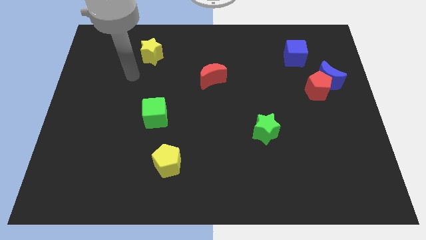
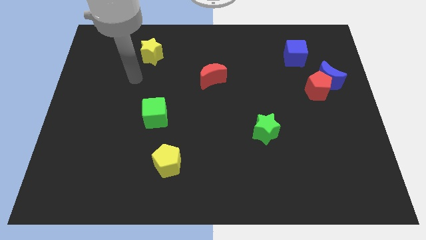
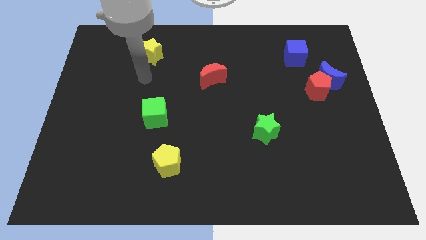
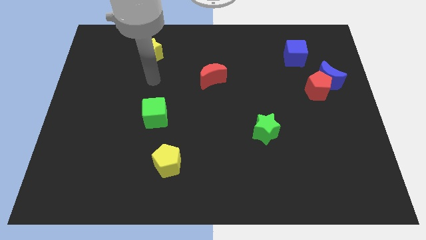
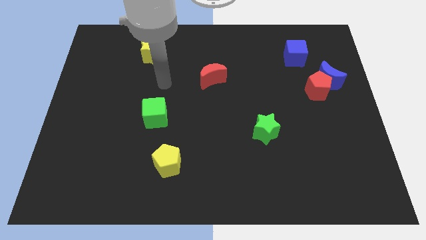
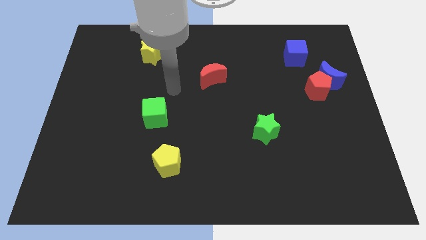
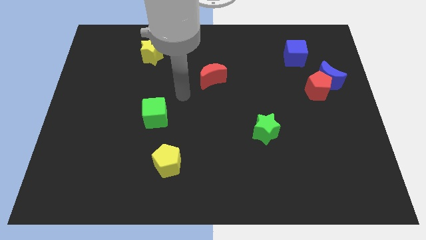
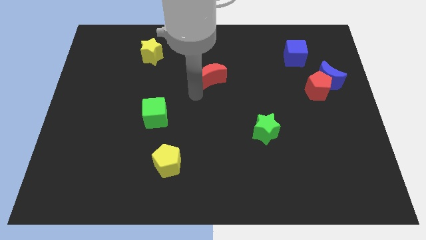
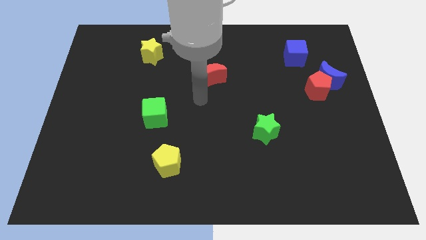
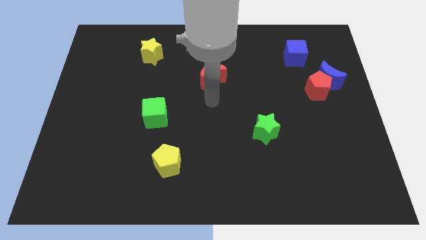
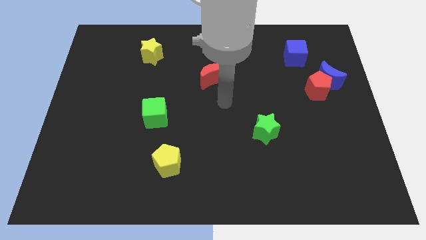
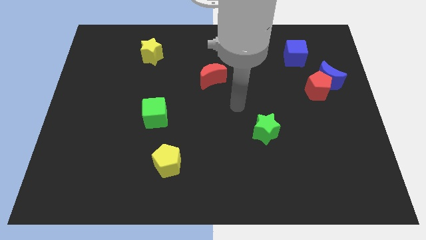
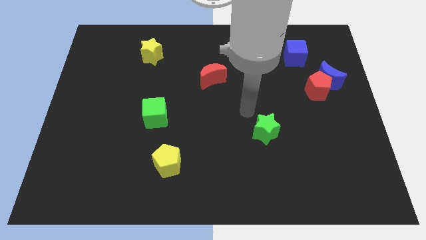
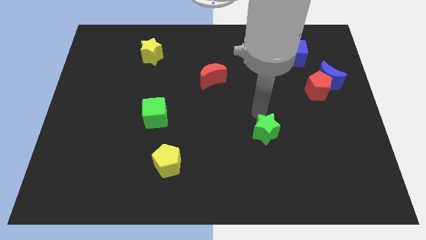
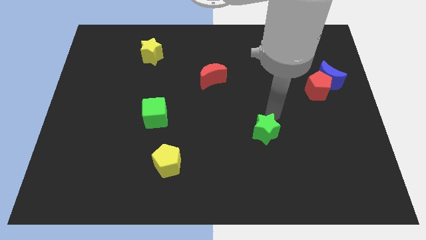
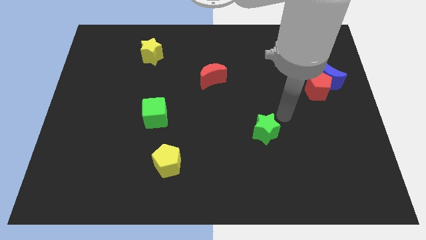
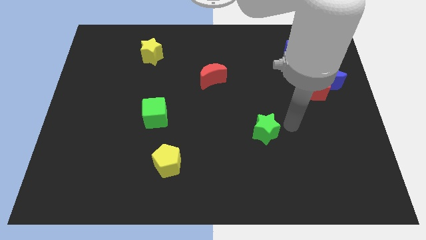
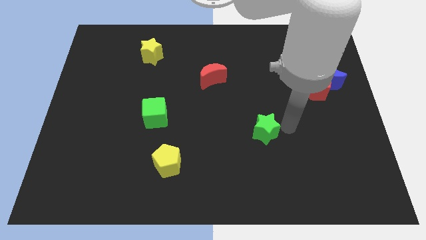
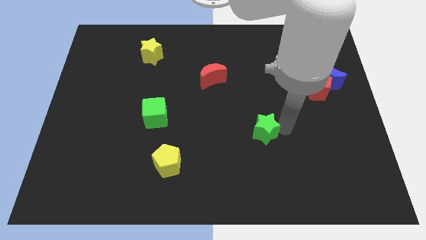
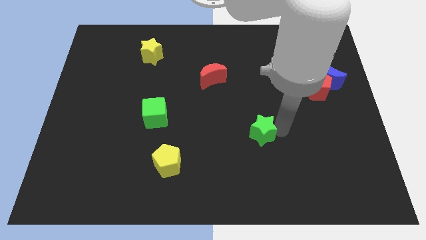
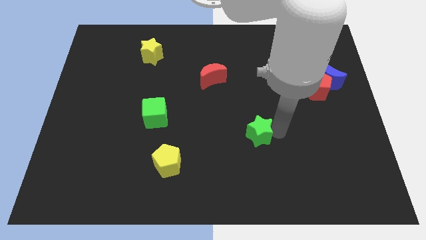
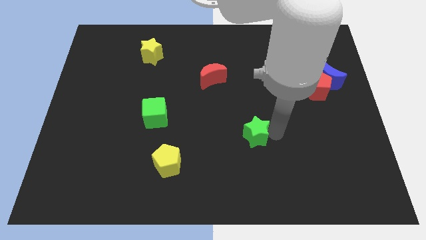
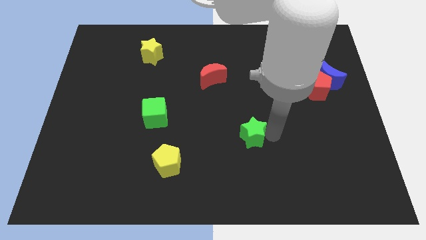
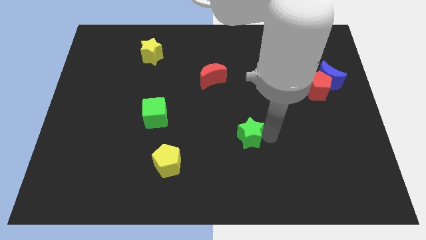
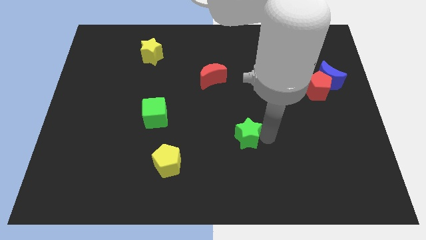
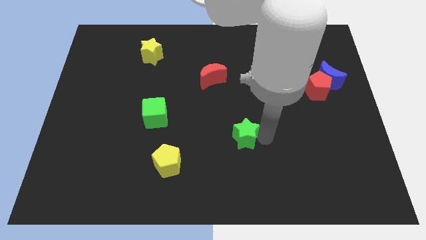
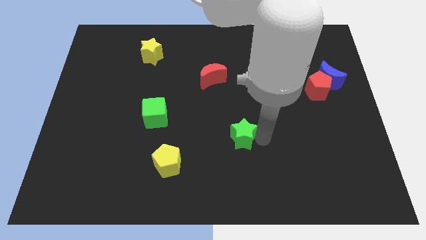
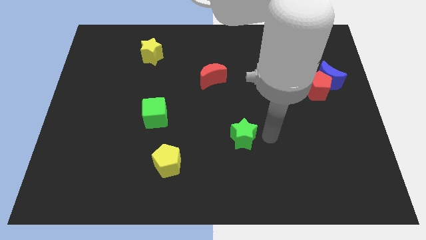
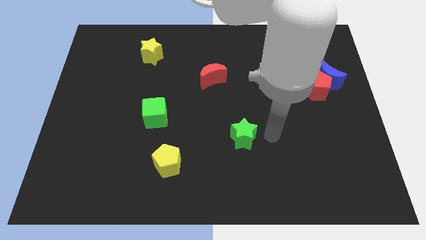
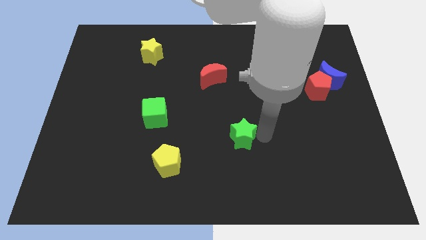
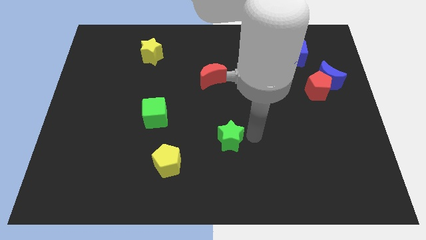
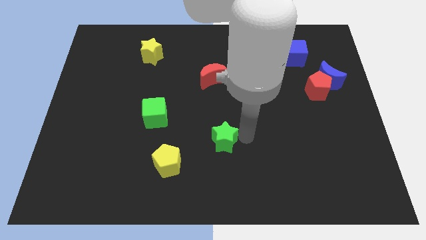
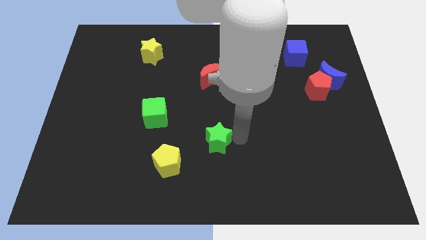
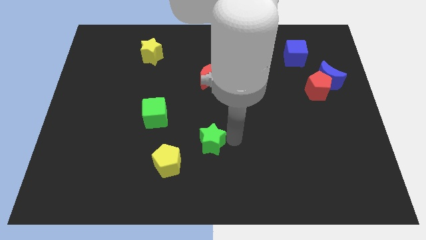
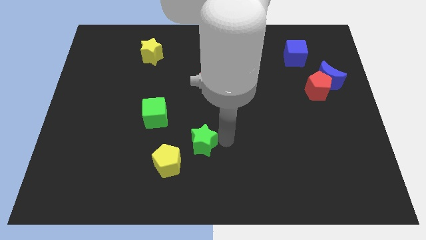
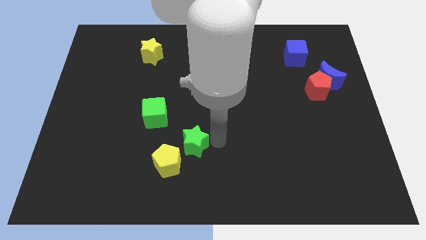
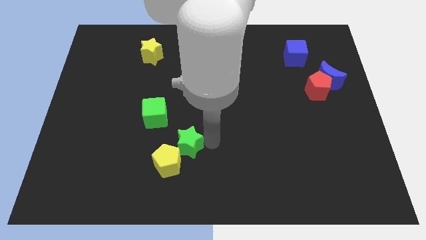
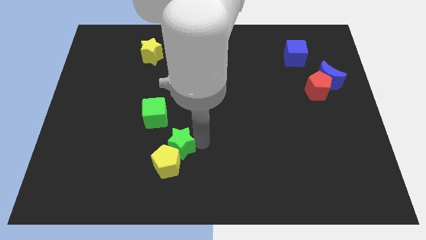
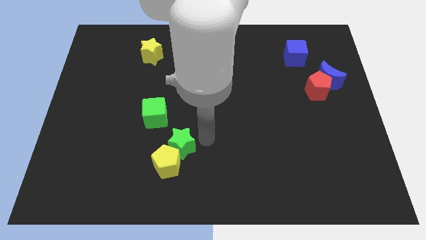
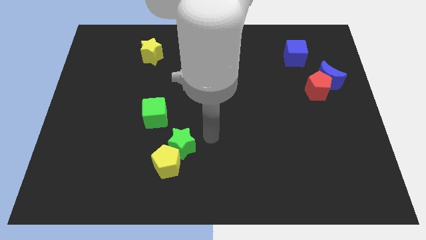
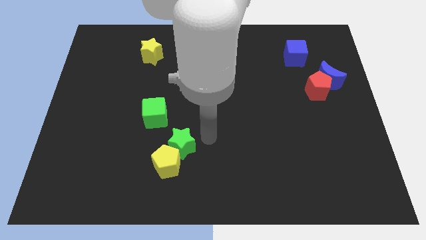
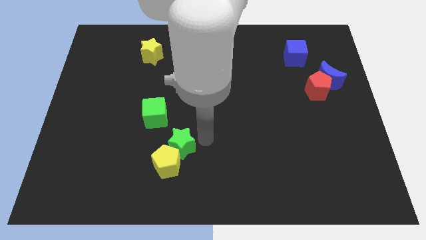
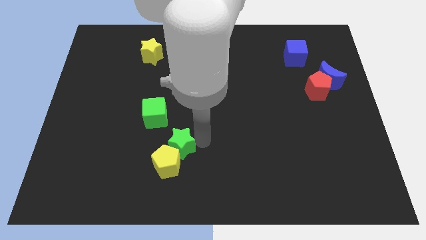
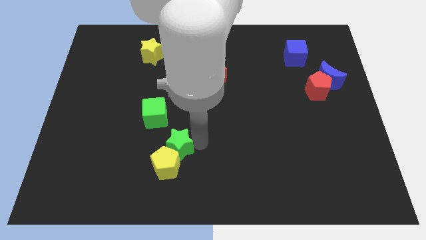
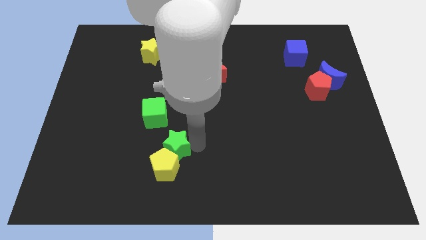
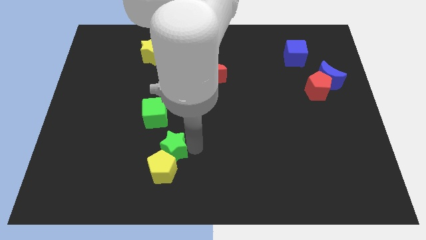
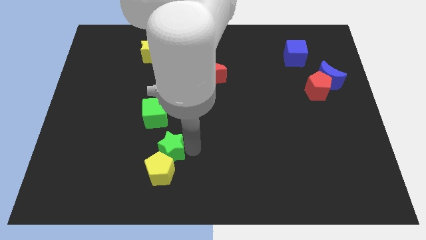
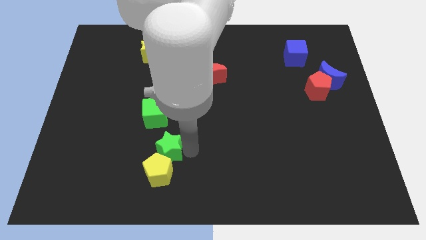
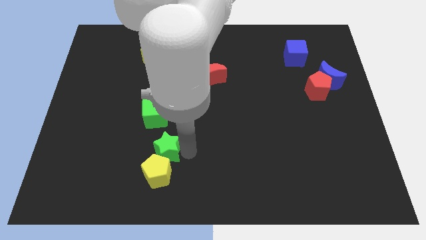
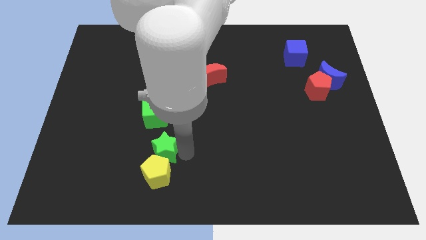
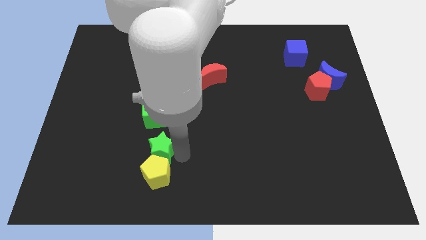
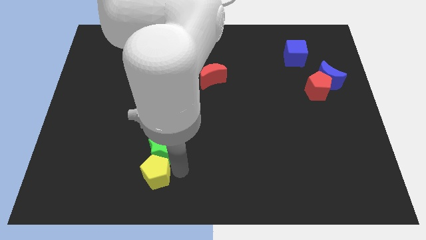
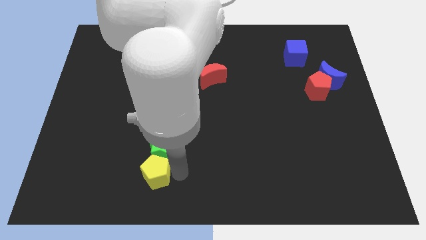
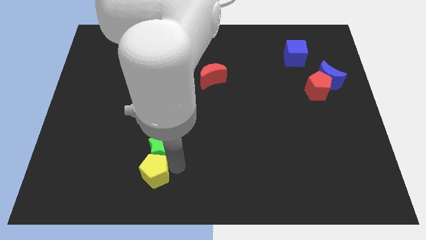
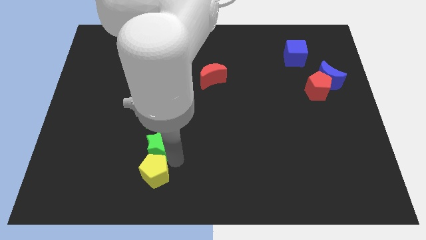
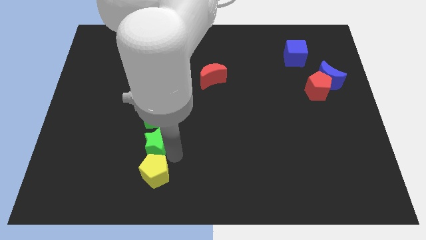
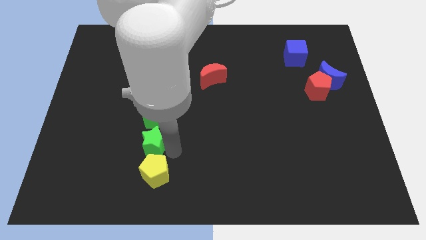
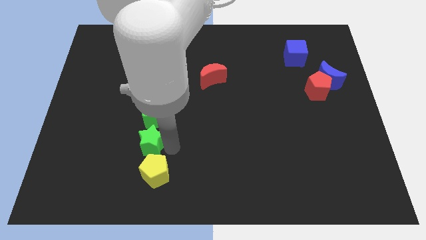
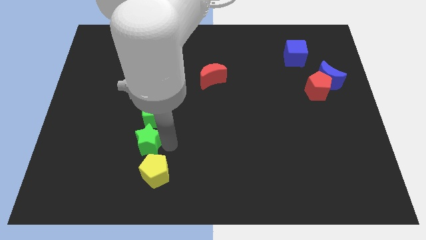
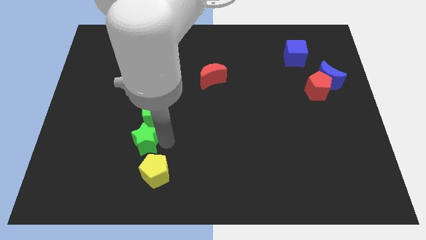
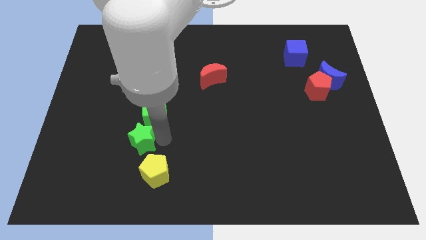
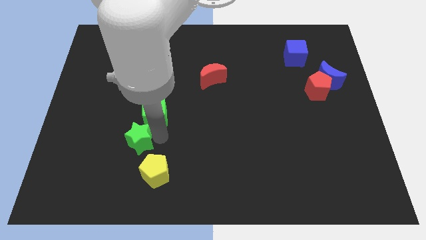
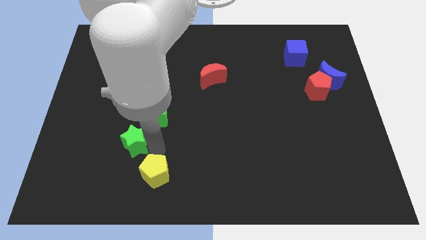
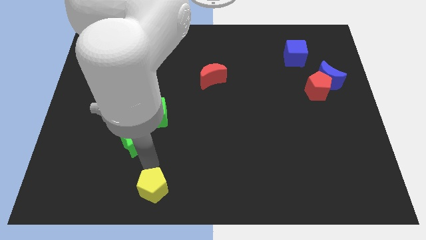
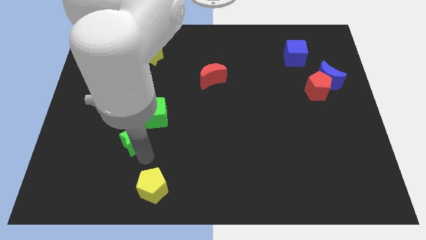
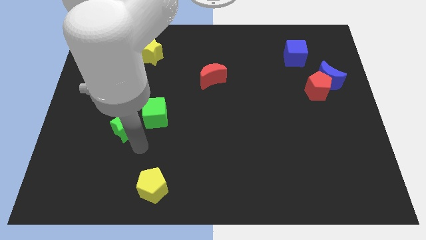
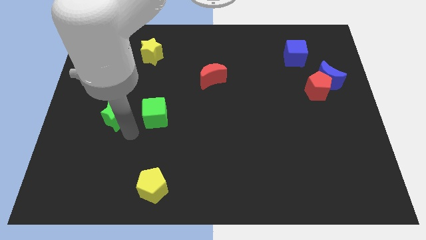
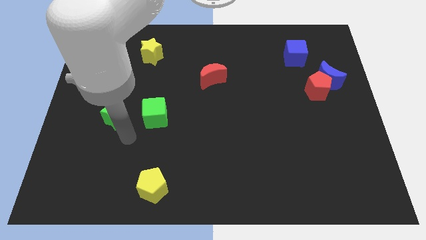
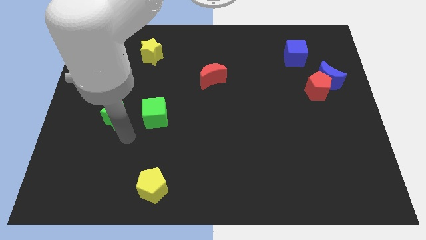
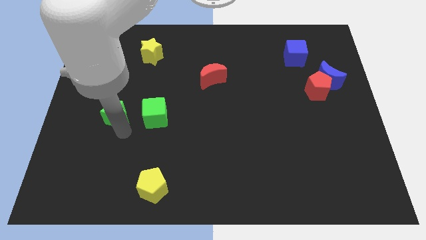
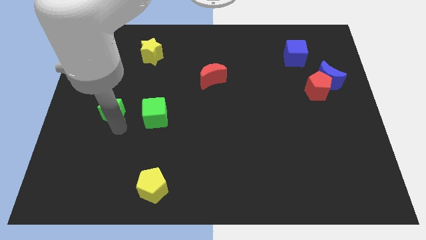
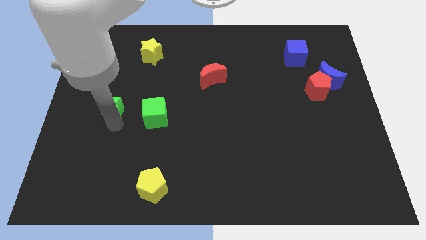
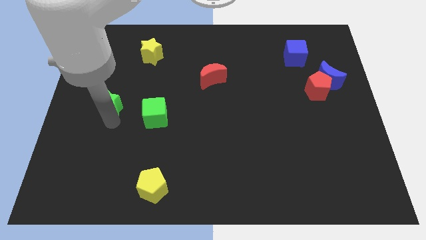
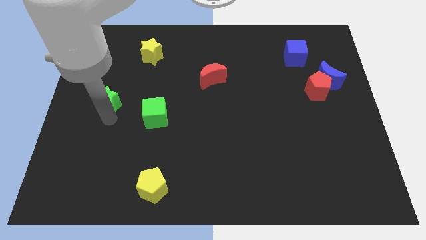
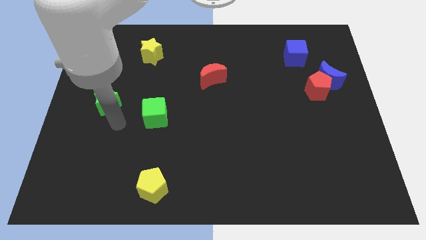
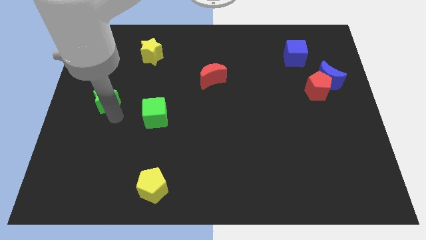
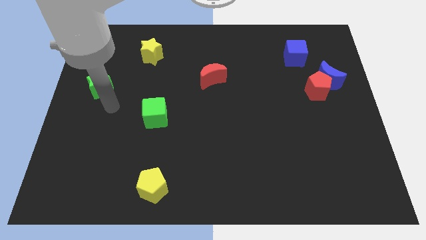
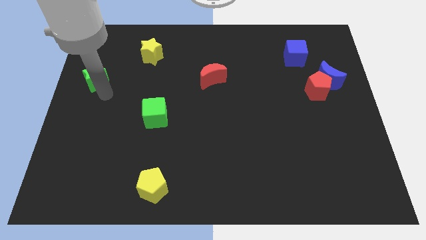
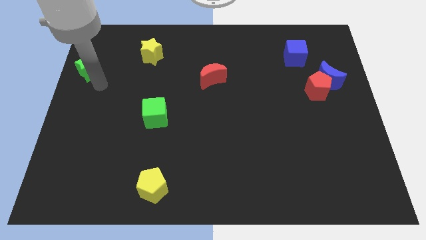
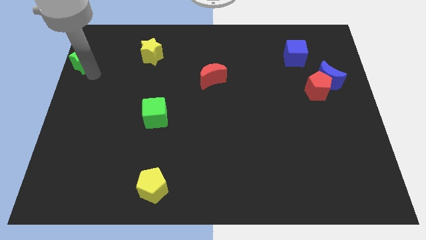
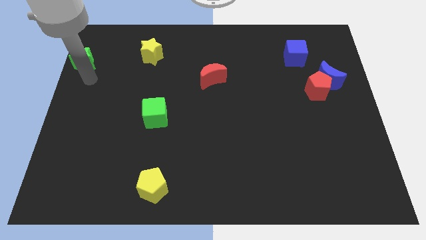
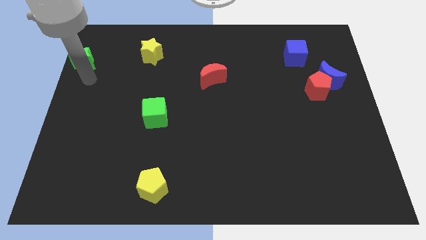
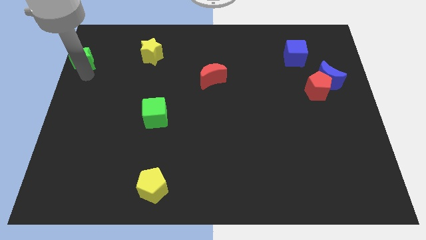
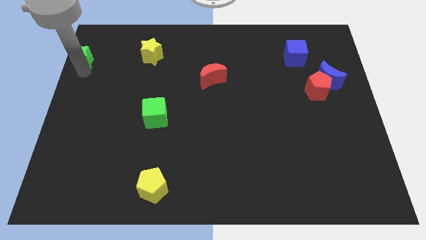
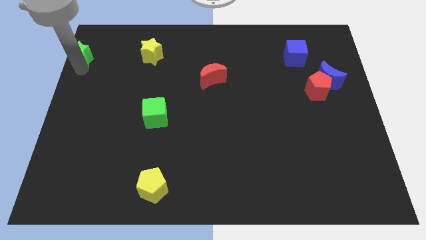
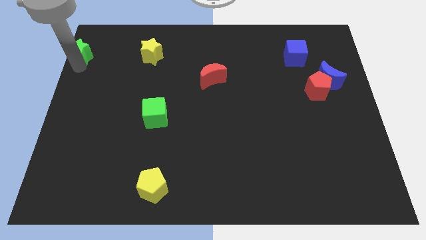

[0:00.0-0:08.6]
move the green star to the top left of the board
